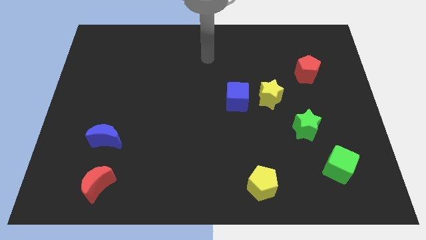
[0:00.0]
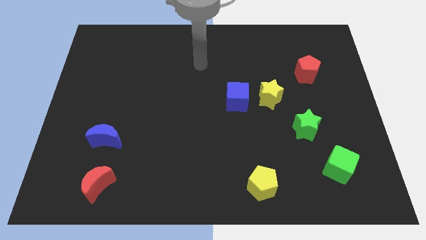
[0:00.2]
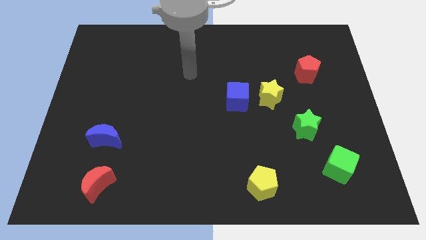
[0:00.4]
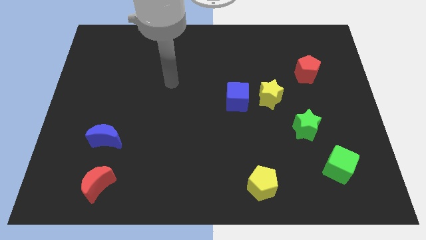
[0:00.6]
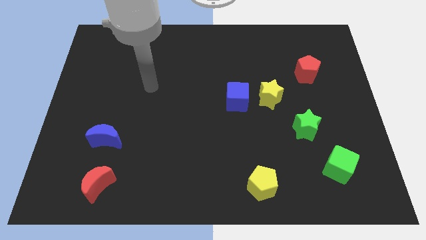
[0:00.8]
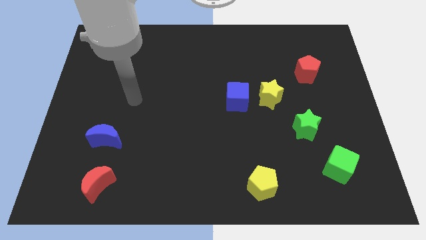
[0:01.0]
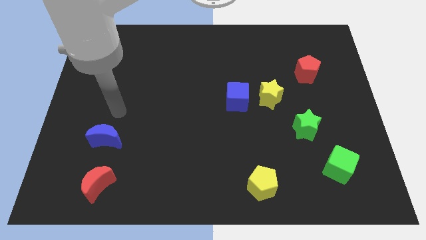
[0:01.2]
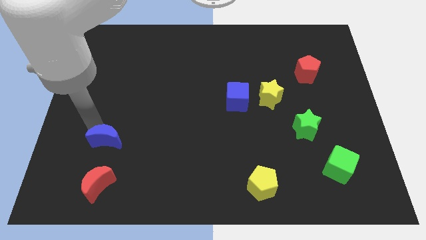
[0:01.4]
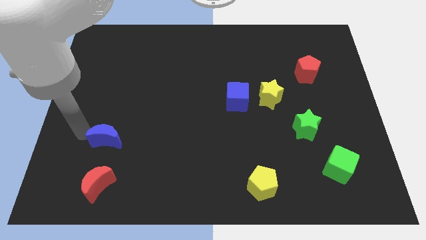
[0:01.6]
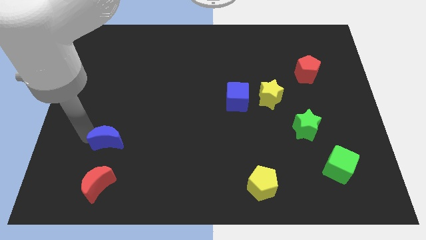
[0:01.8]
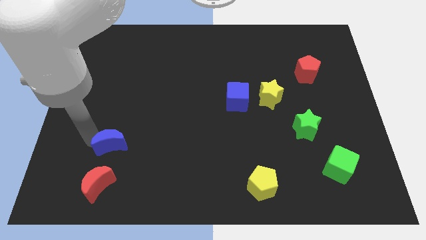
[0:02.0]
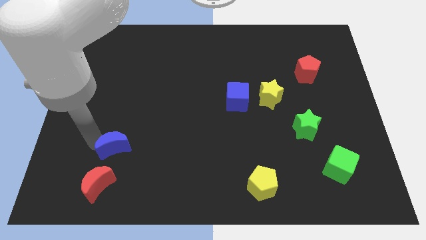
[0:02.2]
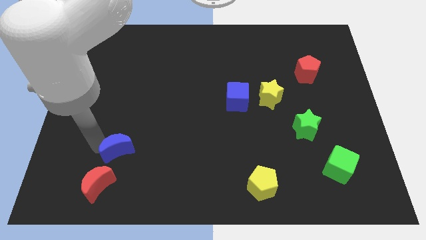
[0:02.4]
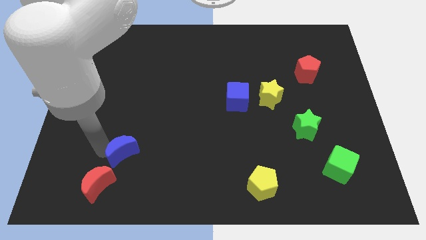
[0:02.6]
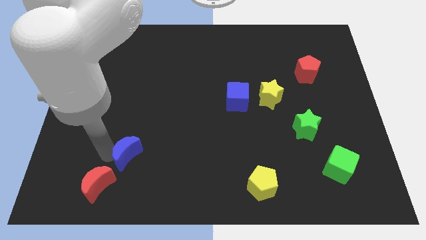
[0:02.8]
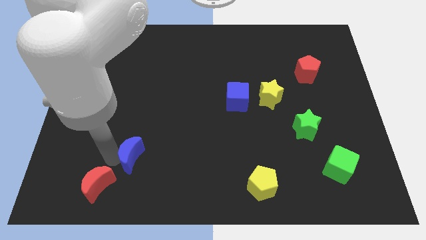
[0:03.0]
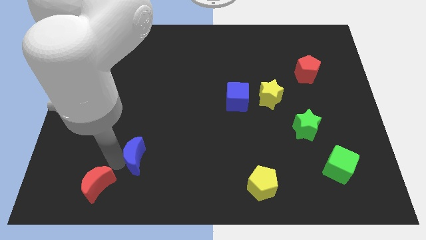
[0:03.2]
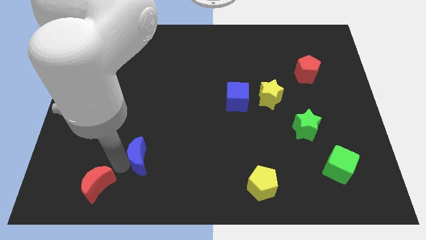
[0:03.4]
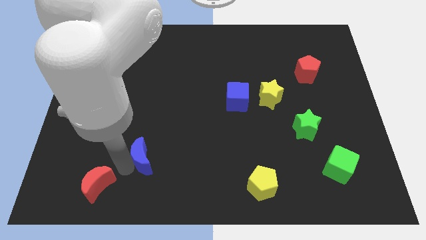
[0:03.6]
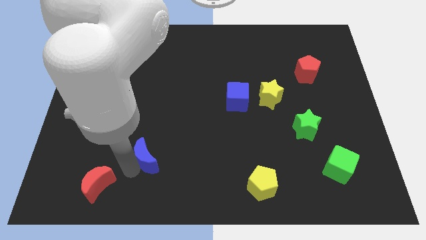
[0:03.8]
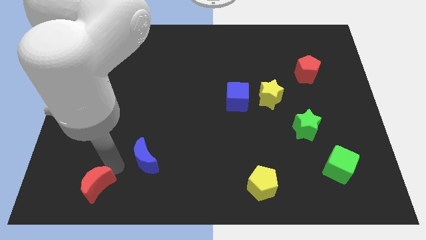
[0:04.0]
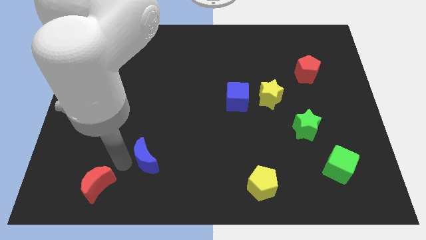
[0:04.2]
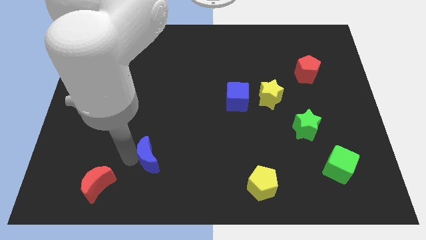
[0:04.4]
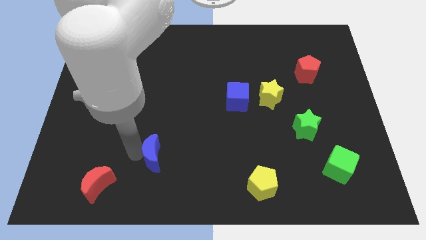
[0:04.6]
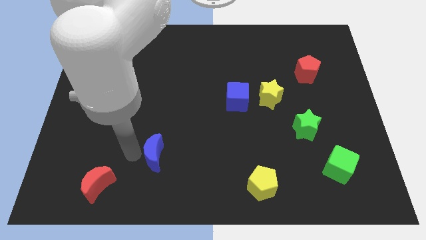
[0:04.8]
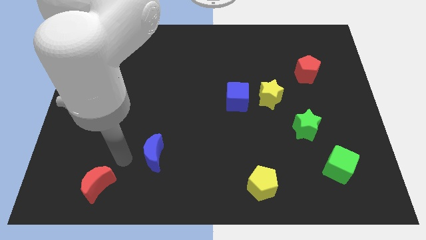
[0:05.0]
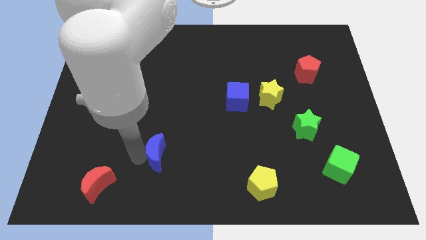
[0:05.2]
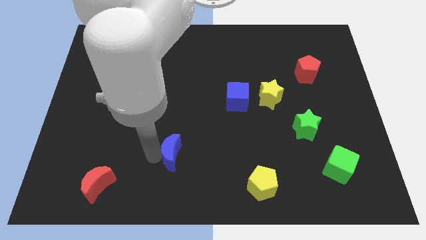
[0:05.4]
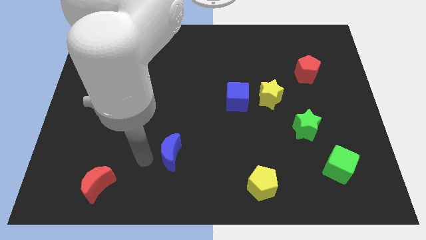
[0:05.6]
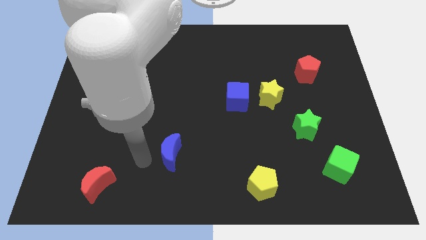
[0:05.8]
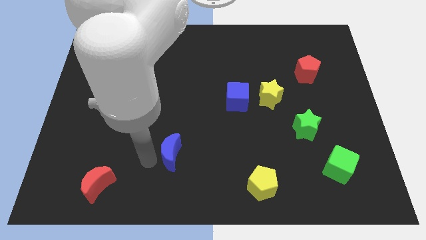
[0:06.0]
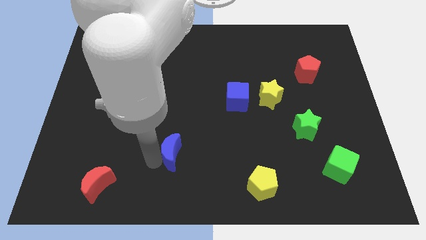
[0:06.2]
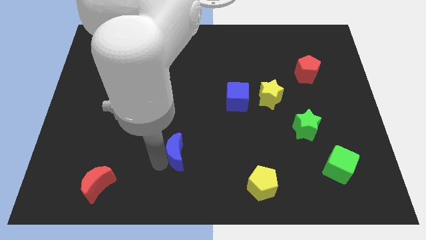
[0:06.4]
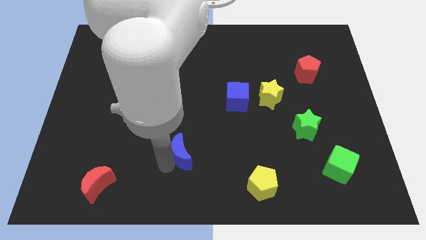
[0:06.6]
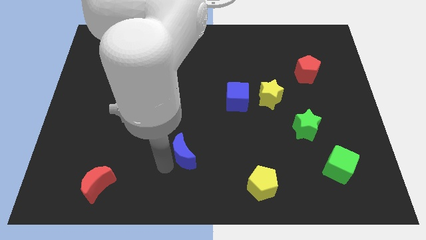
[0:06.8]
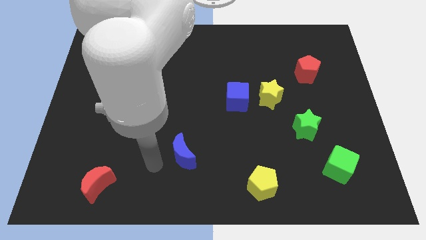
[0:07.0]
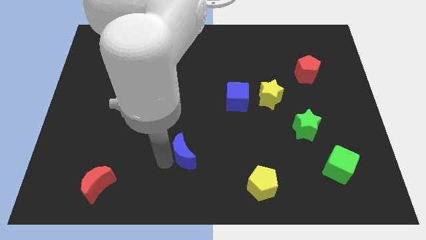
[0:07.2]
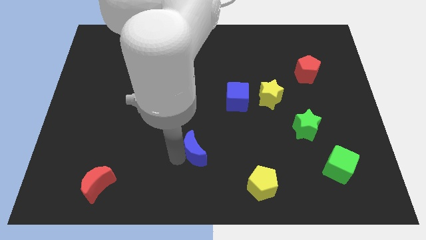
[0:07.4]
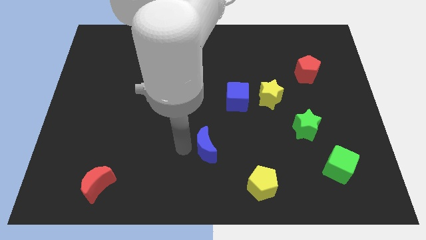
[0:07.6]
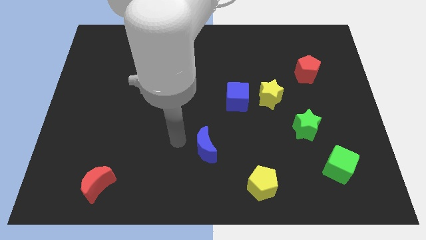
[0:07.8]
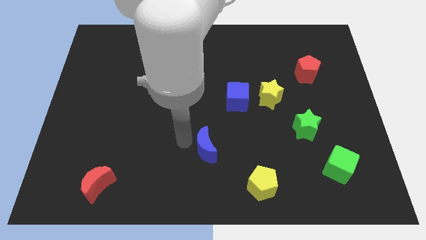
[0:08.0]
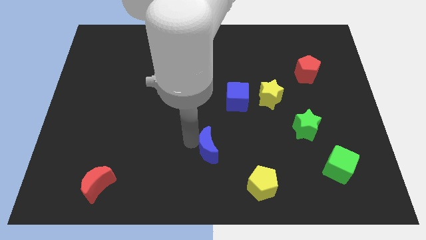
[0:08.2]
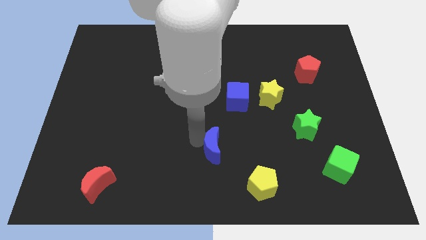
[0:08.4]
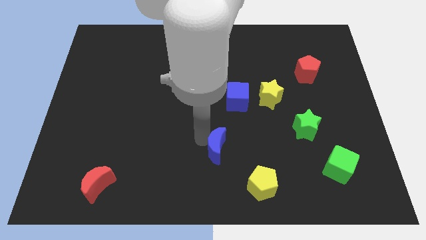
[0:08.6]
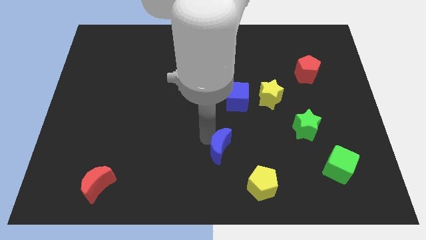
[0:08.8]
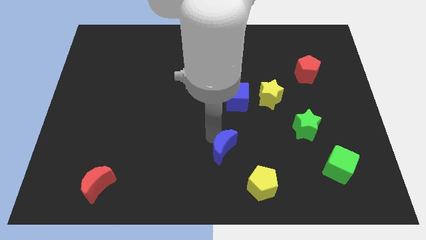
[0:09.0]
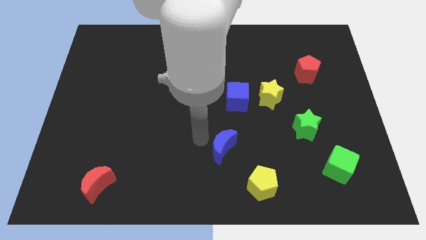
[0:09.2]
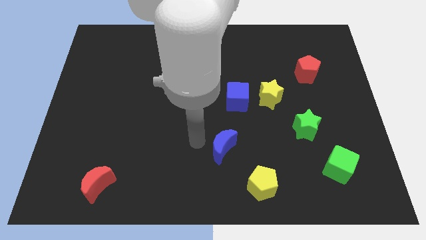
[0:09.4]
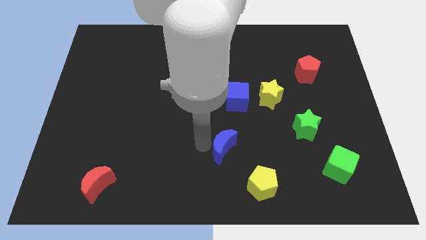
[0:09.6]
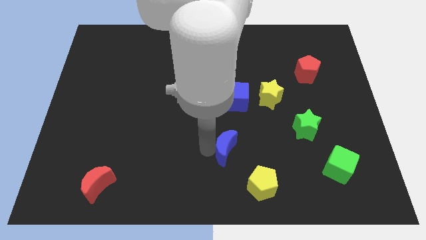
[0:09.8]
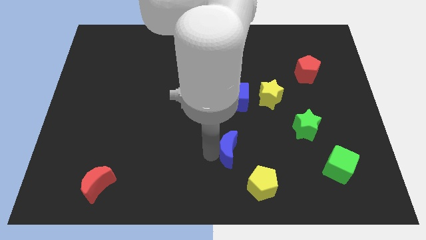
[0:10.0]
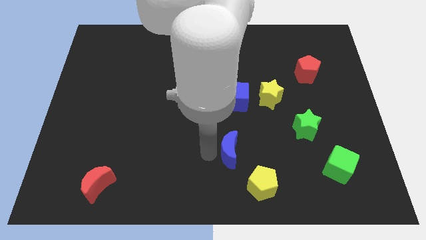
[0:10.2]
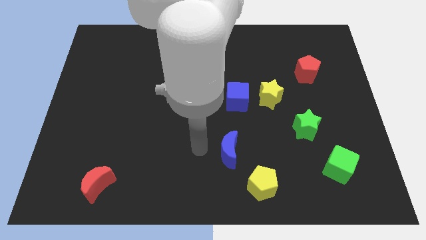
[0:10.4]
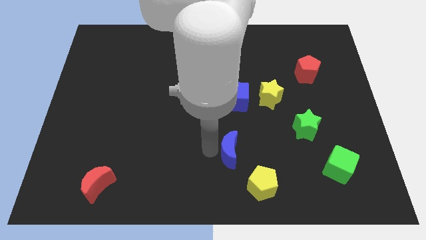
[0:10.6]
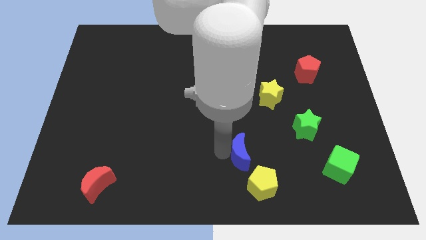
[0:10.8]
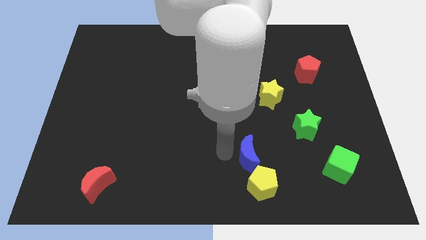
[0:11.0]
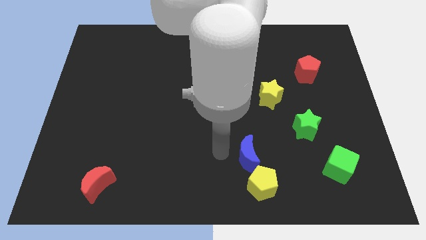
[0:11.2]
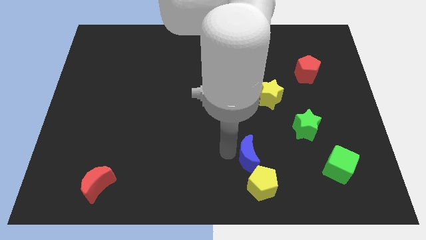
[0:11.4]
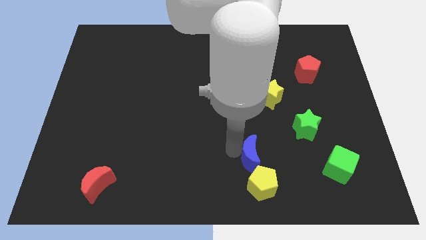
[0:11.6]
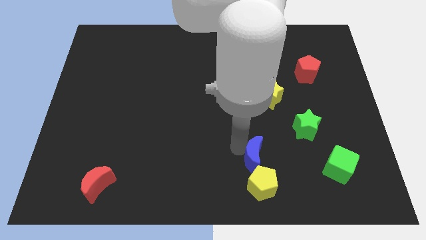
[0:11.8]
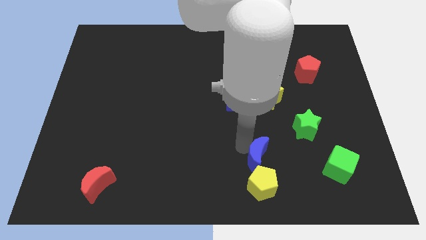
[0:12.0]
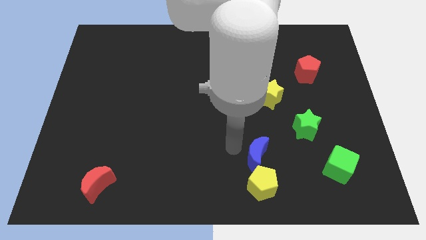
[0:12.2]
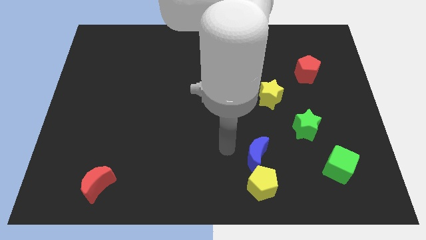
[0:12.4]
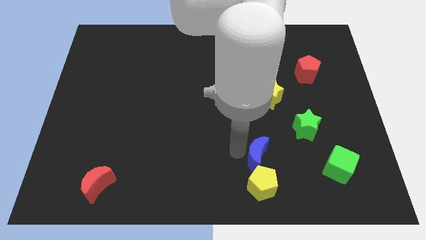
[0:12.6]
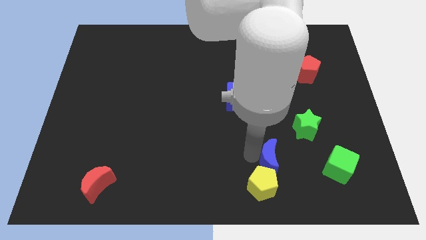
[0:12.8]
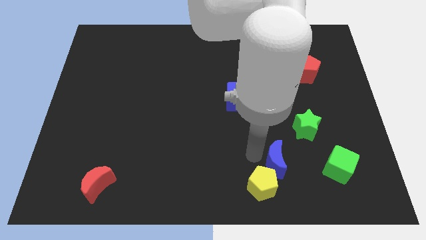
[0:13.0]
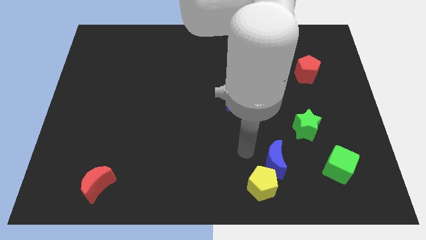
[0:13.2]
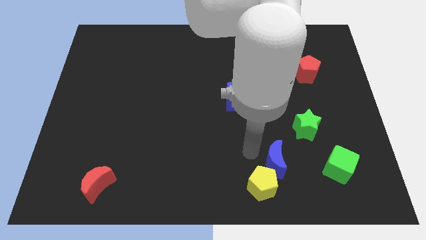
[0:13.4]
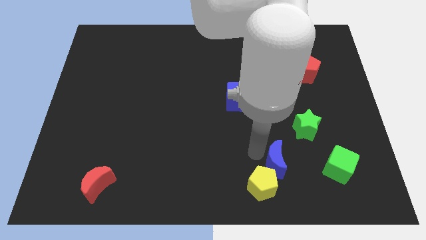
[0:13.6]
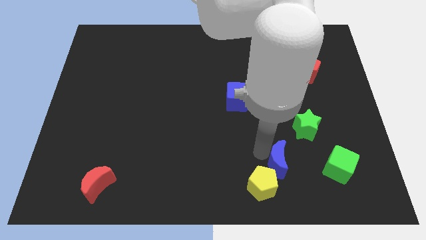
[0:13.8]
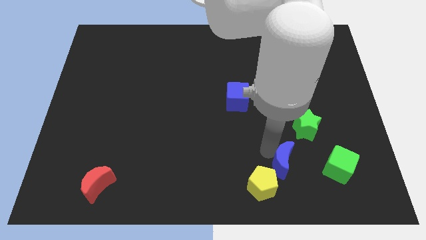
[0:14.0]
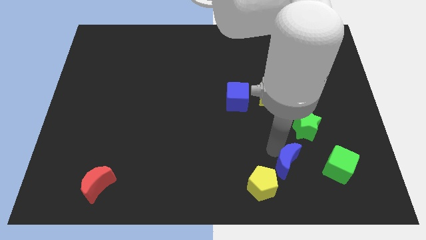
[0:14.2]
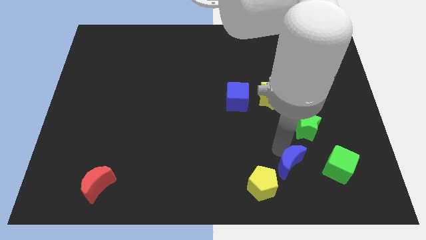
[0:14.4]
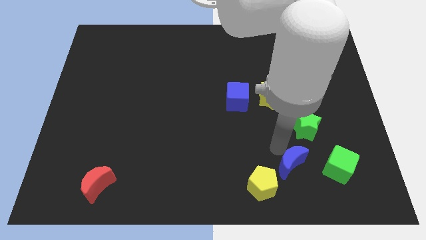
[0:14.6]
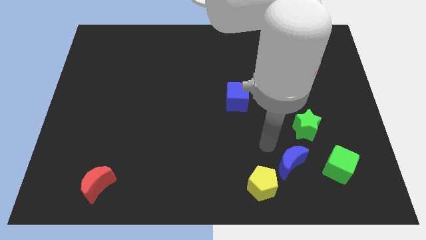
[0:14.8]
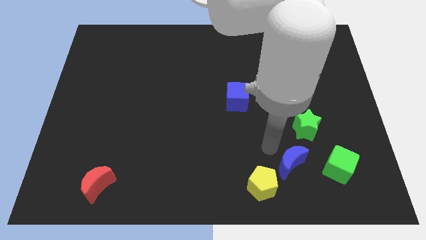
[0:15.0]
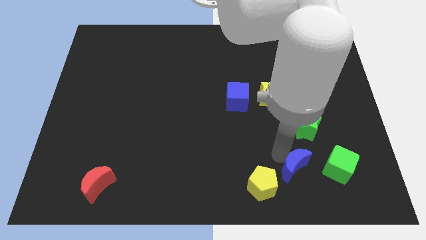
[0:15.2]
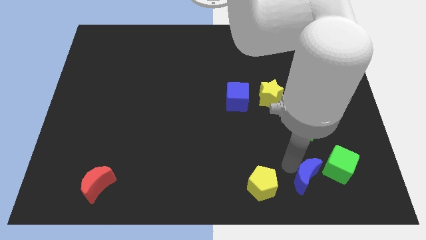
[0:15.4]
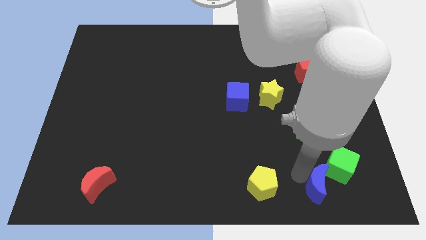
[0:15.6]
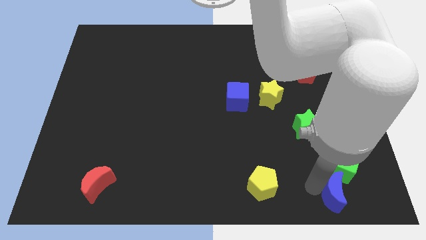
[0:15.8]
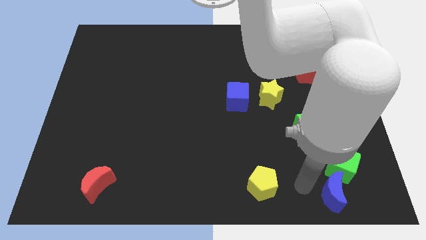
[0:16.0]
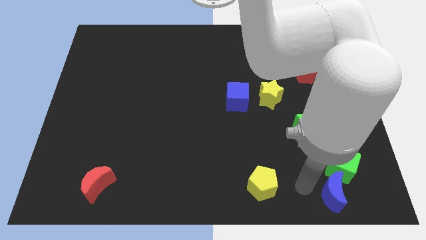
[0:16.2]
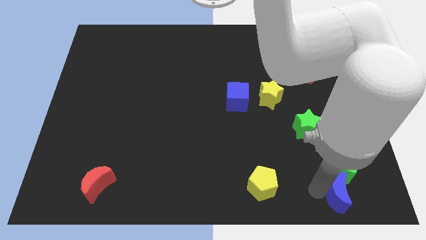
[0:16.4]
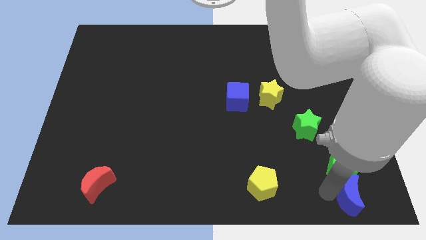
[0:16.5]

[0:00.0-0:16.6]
put the blue moon to the bottom right of the board
